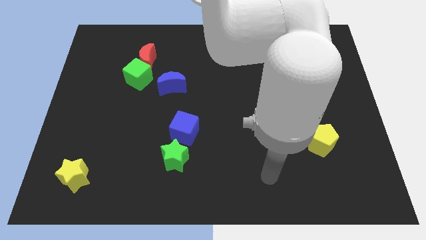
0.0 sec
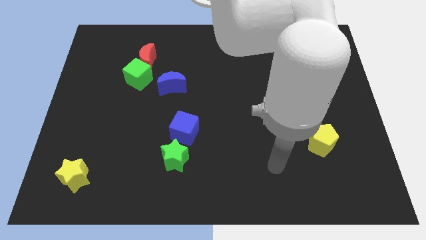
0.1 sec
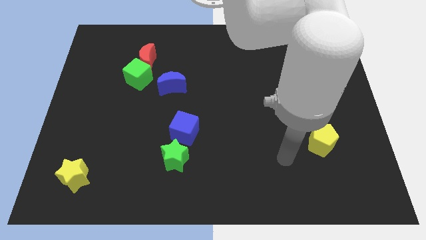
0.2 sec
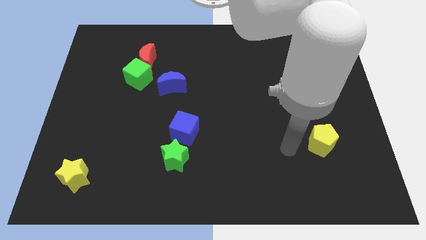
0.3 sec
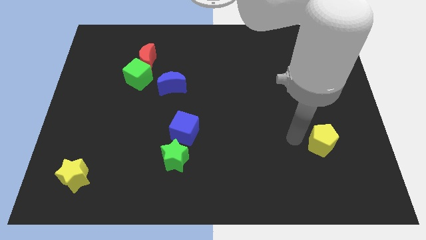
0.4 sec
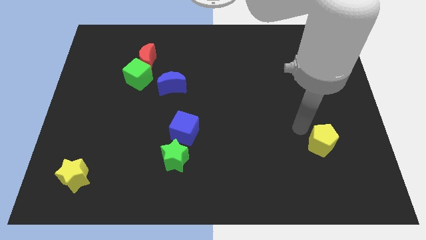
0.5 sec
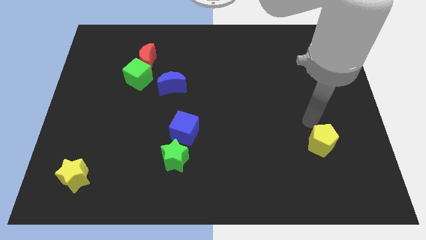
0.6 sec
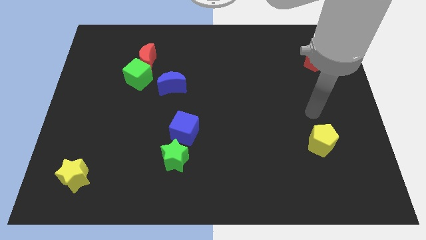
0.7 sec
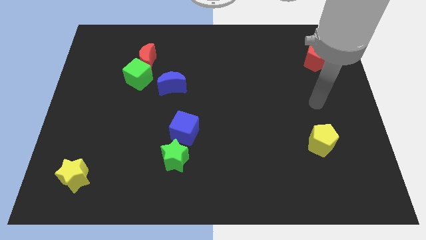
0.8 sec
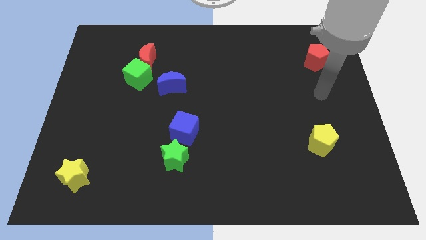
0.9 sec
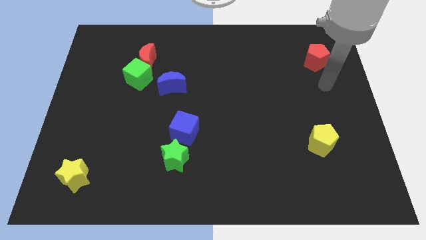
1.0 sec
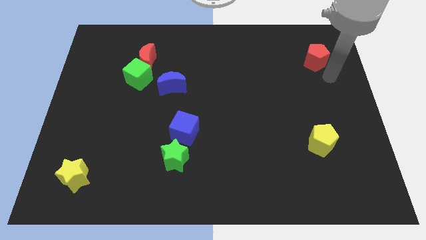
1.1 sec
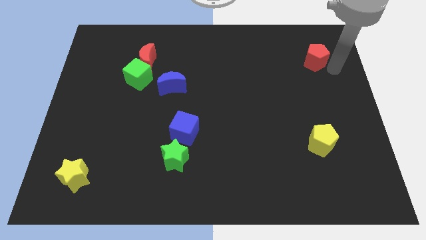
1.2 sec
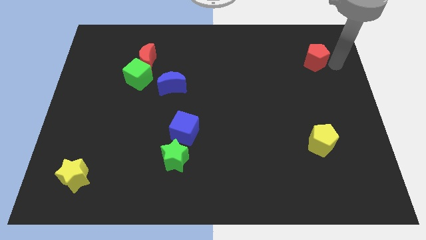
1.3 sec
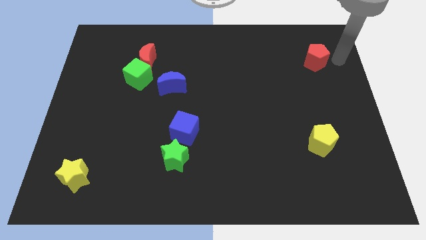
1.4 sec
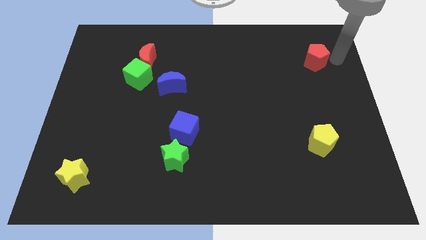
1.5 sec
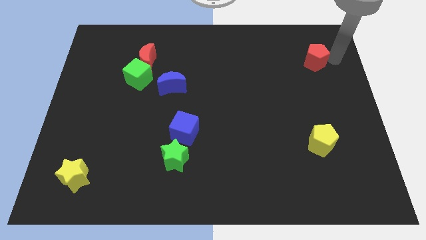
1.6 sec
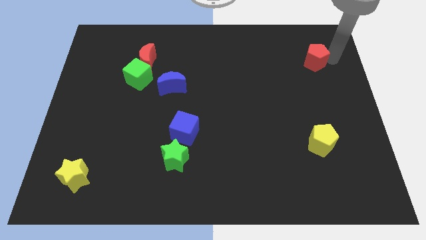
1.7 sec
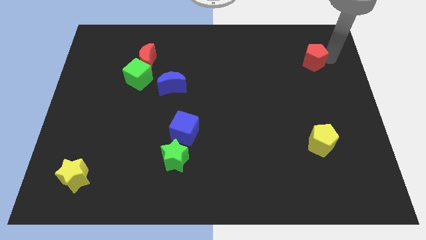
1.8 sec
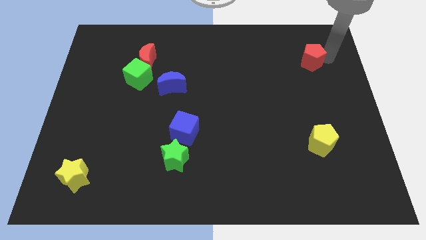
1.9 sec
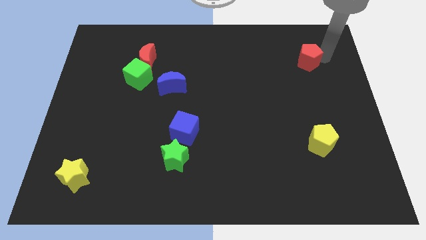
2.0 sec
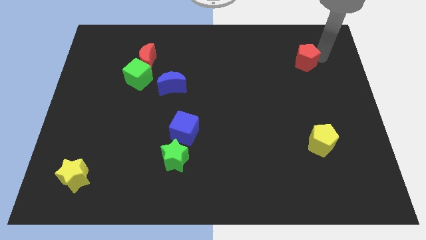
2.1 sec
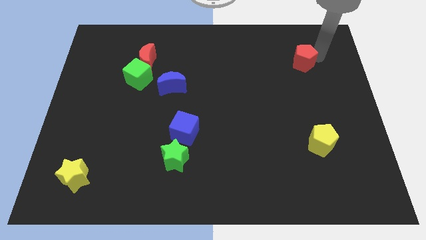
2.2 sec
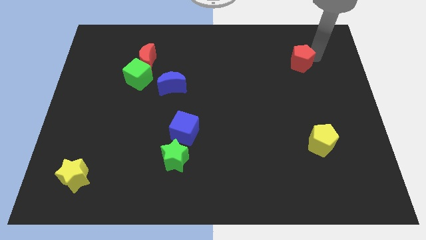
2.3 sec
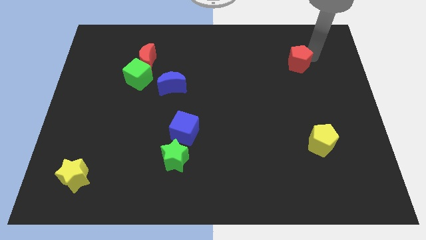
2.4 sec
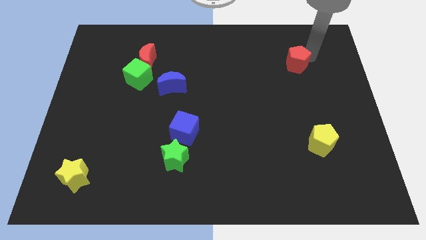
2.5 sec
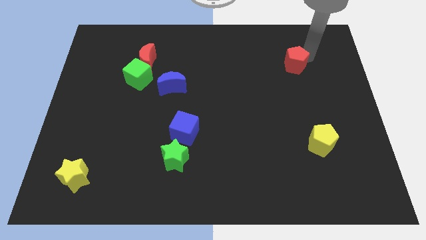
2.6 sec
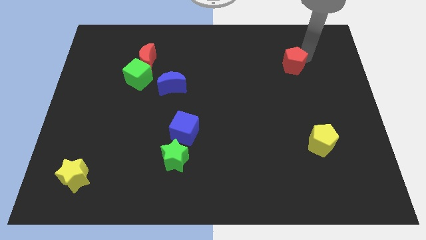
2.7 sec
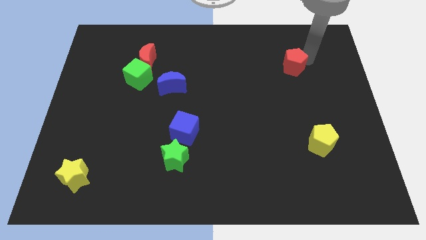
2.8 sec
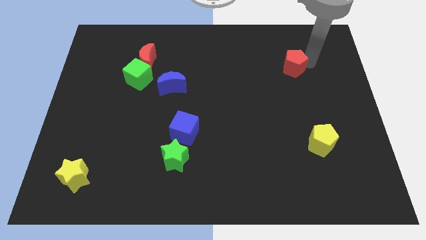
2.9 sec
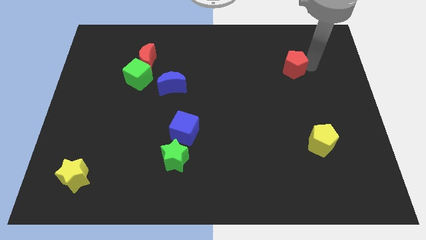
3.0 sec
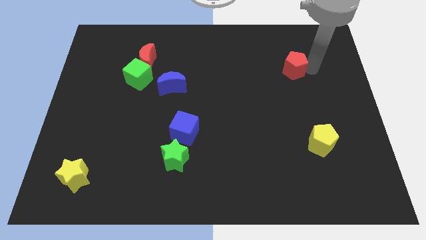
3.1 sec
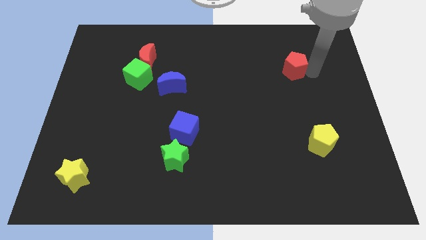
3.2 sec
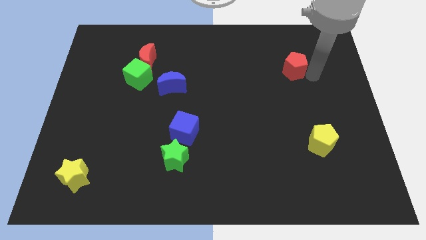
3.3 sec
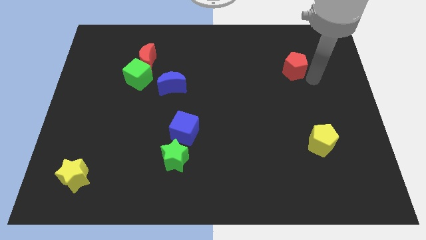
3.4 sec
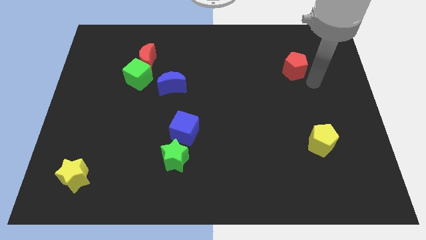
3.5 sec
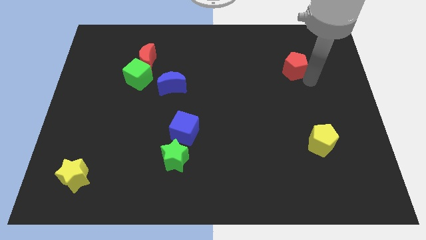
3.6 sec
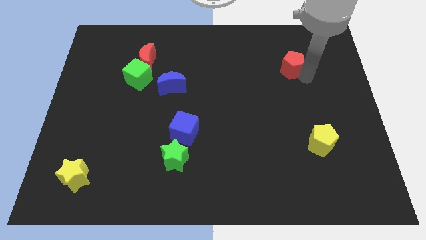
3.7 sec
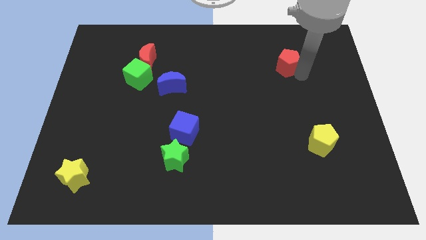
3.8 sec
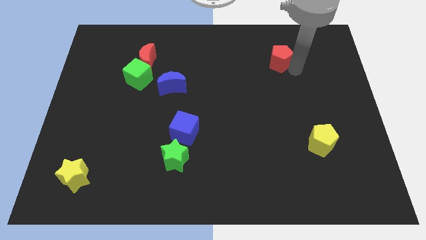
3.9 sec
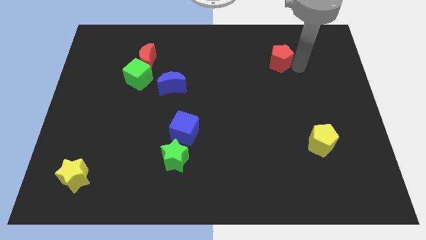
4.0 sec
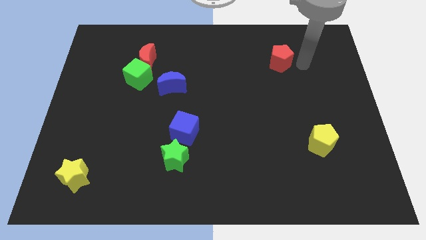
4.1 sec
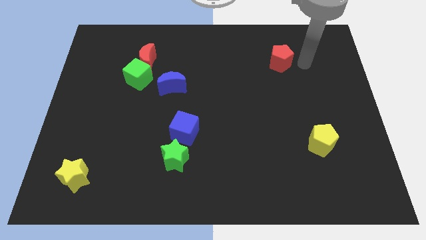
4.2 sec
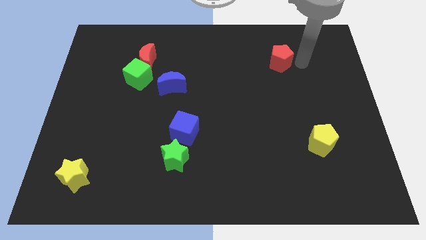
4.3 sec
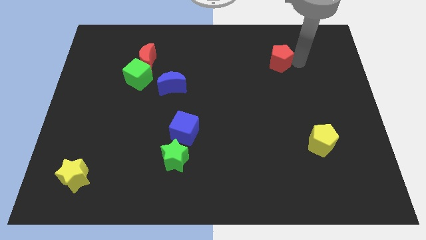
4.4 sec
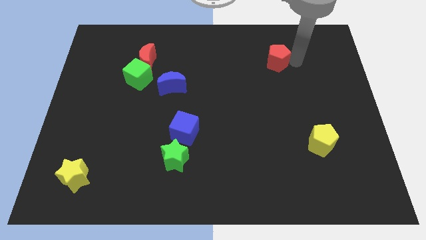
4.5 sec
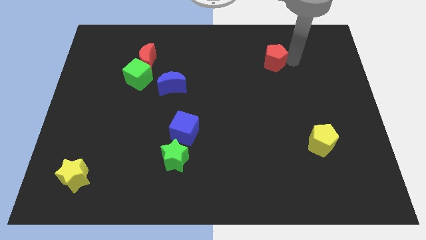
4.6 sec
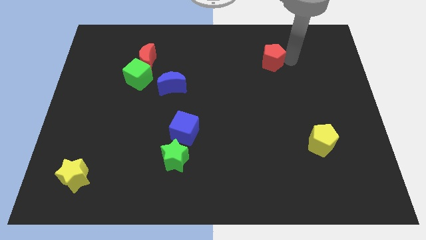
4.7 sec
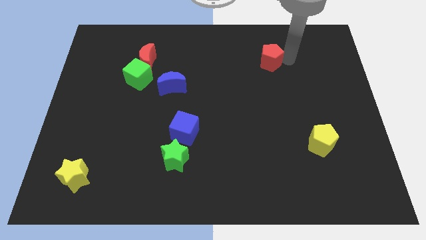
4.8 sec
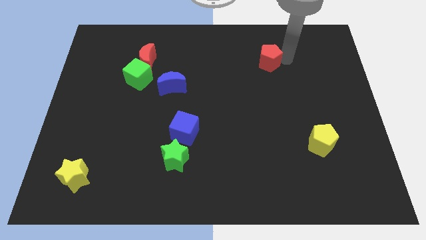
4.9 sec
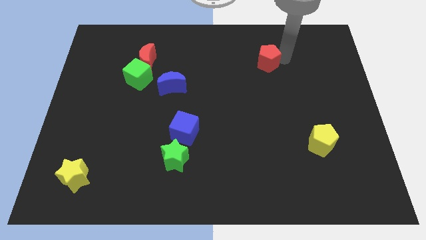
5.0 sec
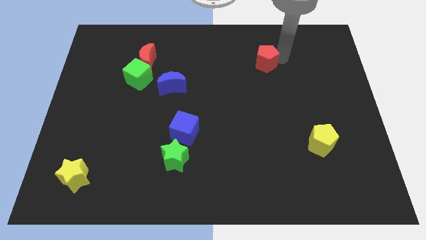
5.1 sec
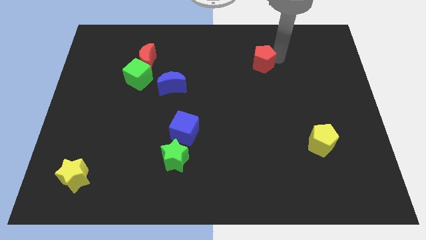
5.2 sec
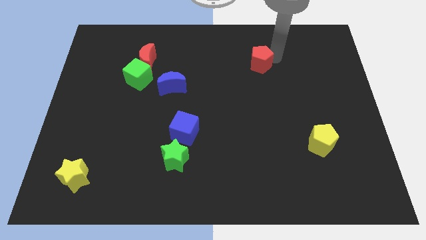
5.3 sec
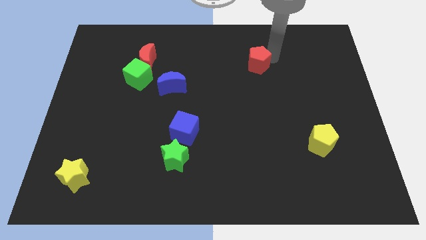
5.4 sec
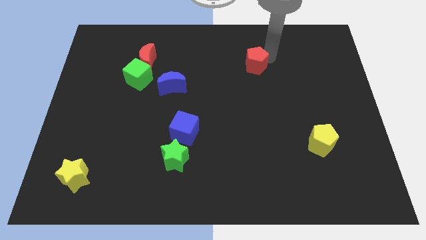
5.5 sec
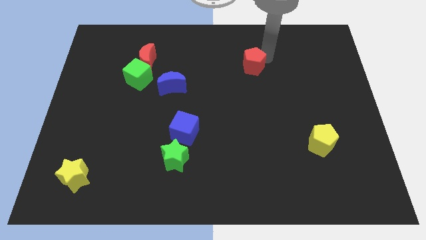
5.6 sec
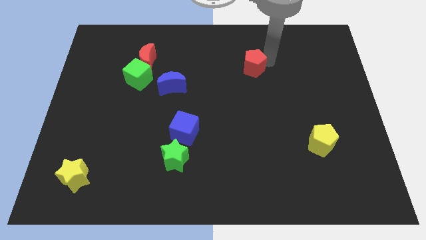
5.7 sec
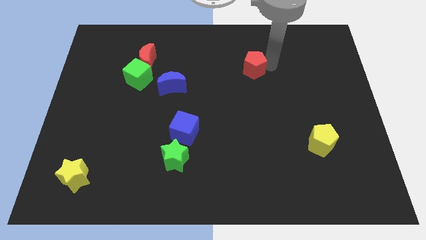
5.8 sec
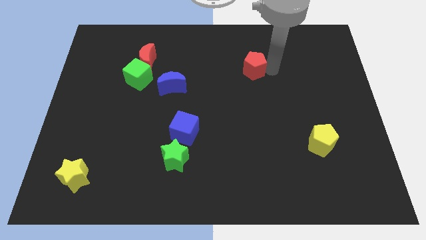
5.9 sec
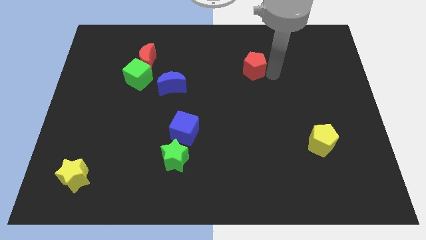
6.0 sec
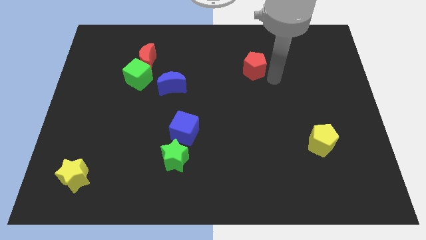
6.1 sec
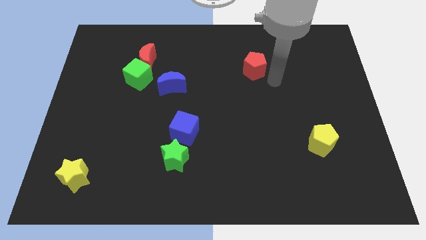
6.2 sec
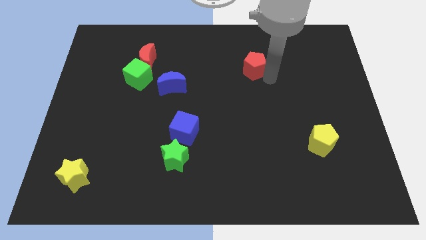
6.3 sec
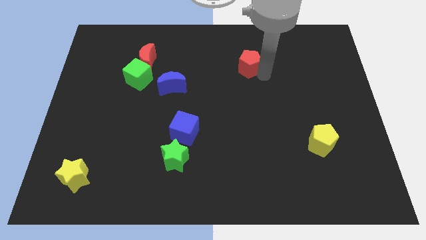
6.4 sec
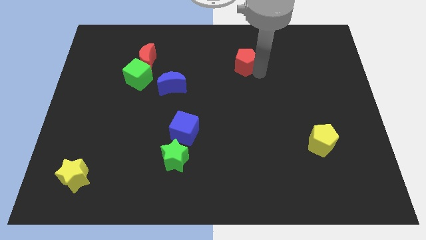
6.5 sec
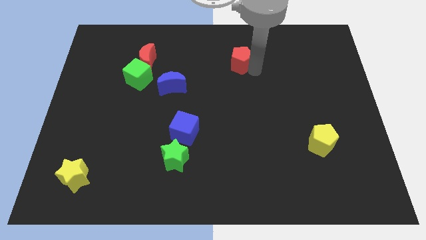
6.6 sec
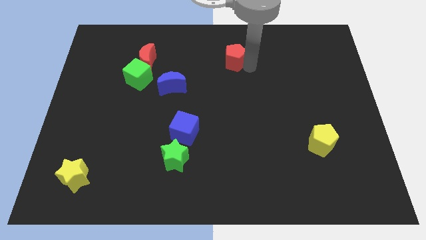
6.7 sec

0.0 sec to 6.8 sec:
move the red pentagon left

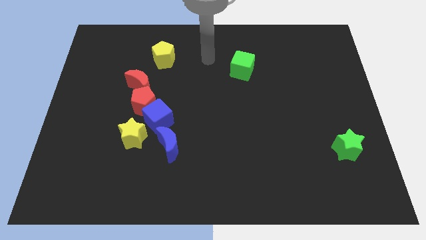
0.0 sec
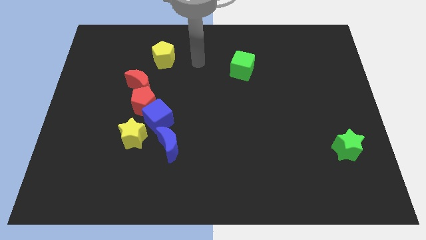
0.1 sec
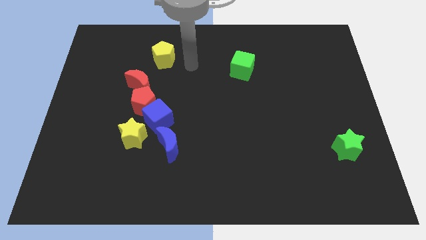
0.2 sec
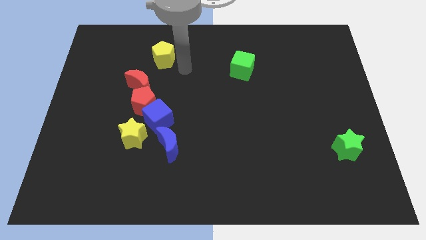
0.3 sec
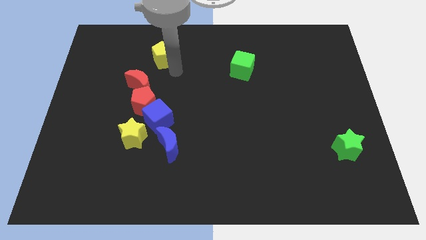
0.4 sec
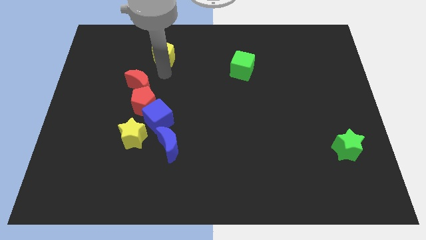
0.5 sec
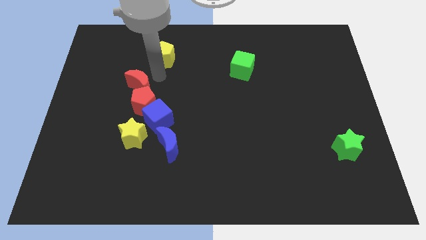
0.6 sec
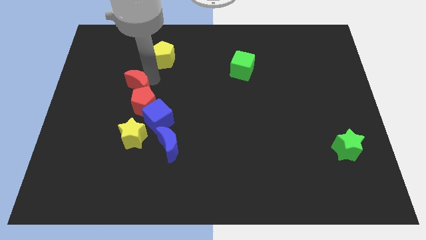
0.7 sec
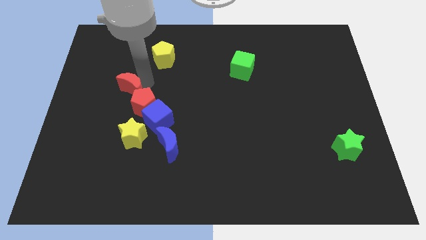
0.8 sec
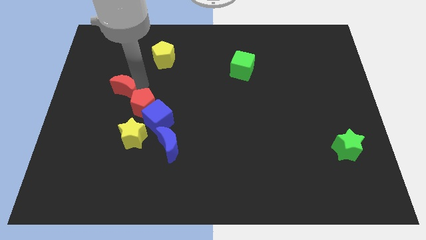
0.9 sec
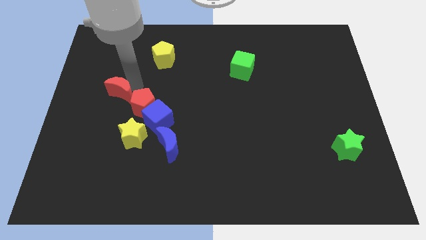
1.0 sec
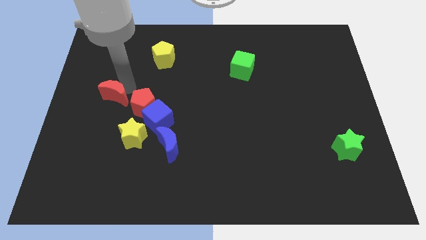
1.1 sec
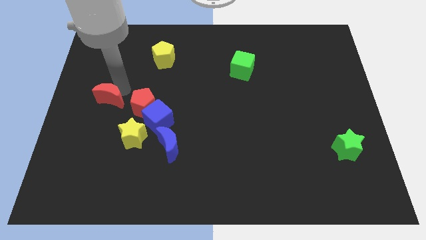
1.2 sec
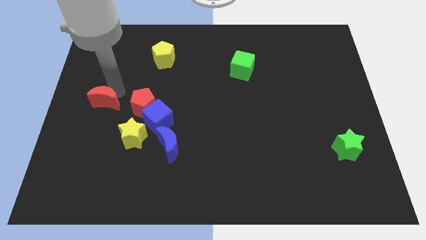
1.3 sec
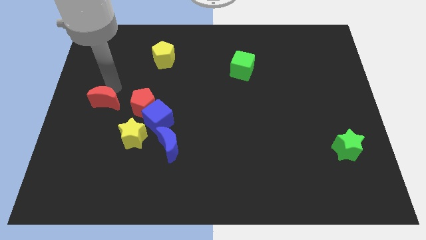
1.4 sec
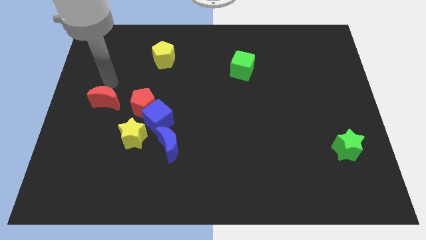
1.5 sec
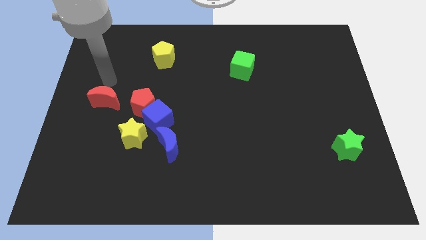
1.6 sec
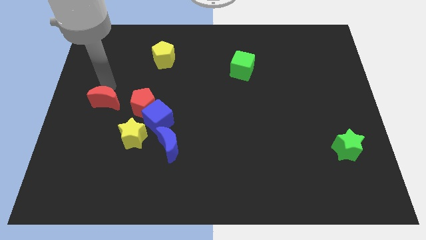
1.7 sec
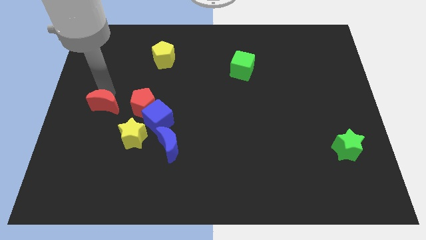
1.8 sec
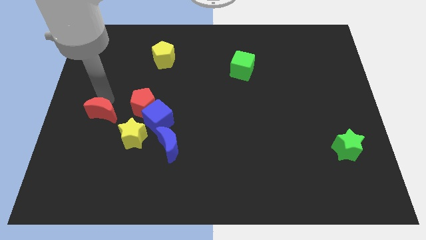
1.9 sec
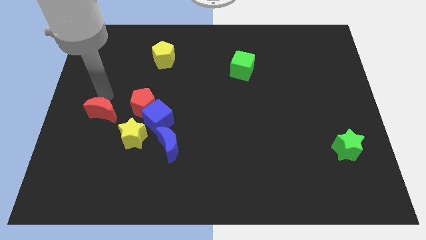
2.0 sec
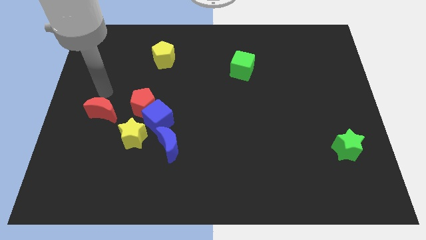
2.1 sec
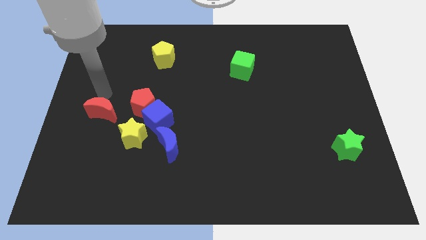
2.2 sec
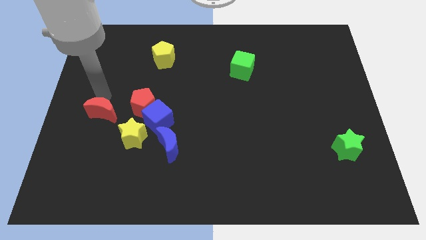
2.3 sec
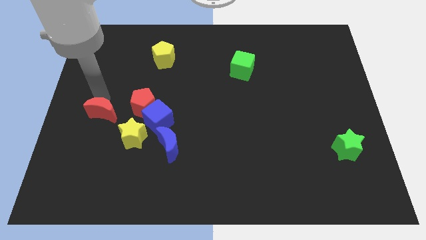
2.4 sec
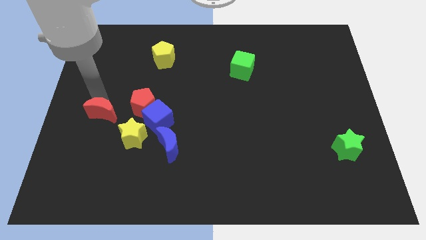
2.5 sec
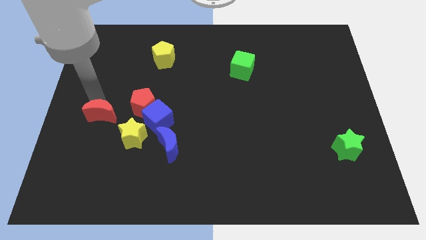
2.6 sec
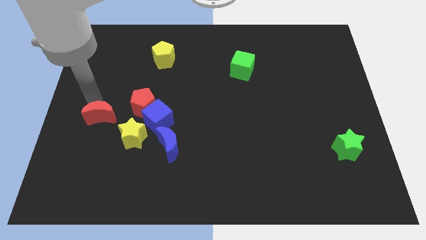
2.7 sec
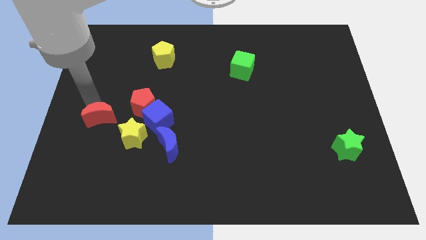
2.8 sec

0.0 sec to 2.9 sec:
slide the red moon a little bit down
